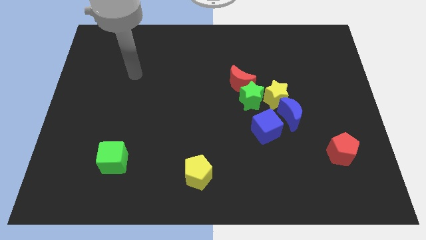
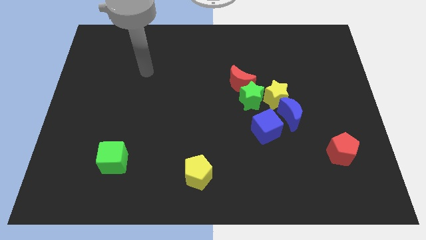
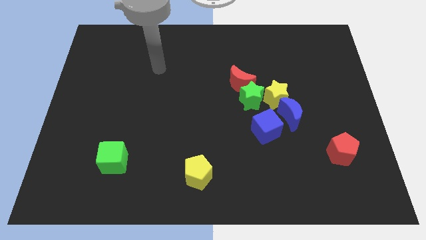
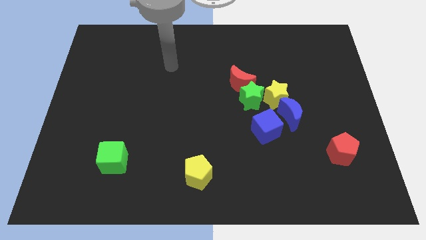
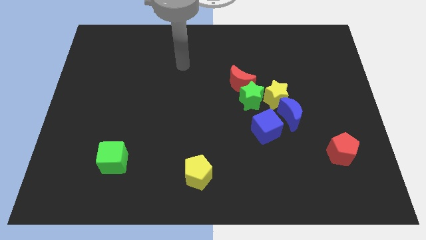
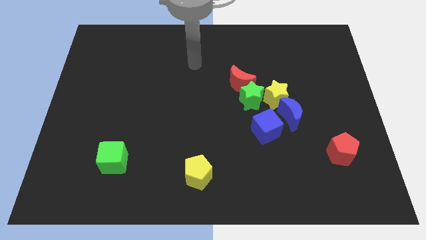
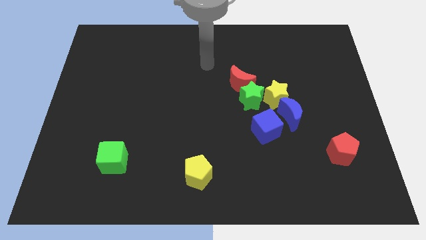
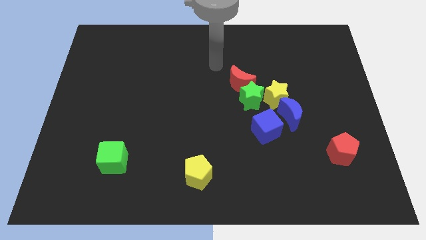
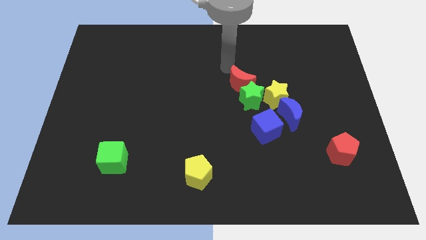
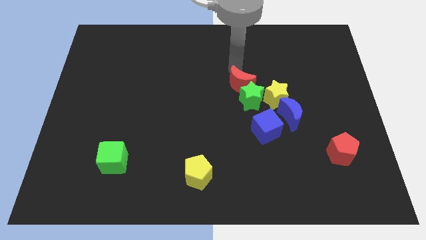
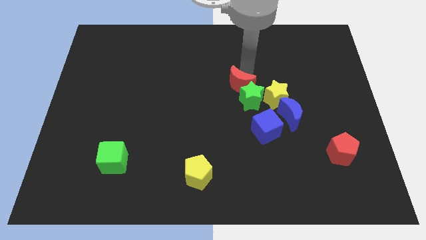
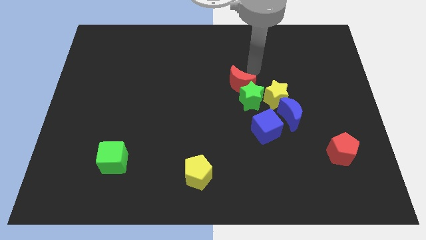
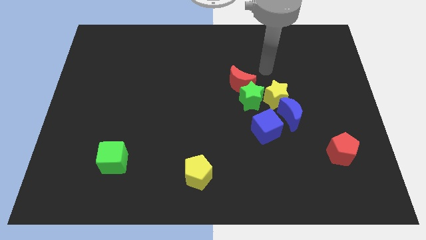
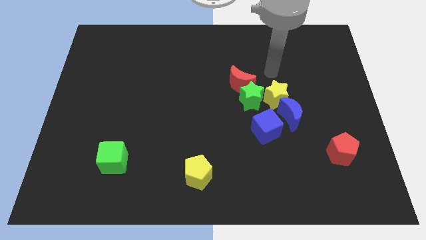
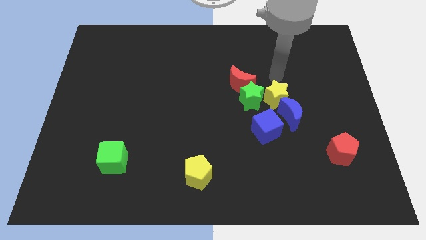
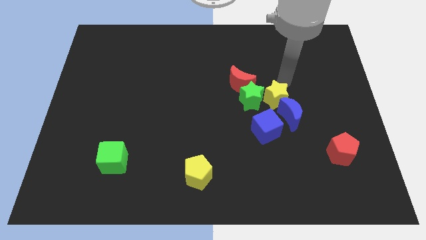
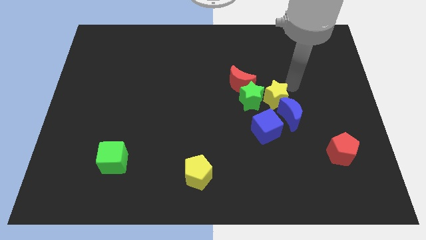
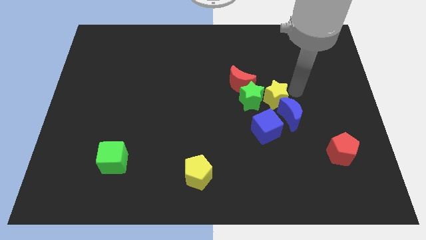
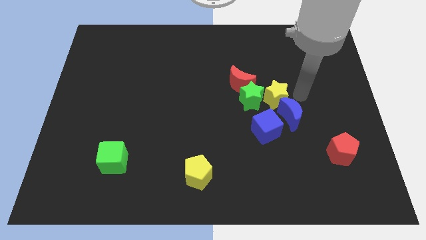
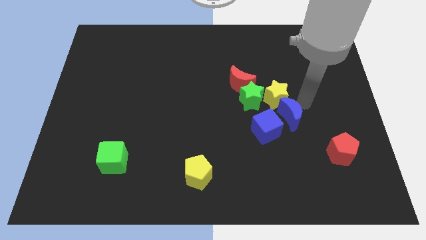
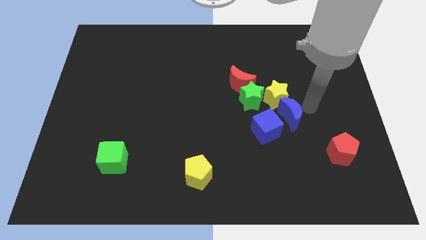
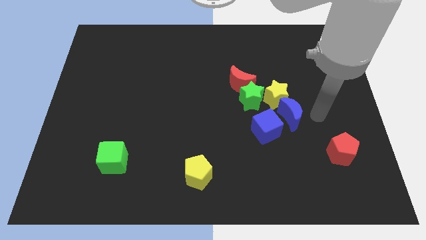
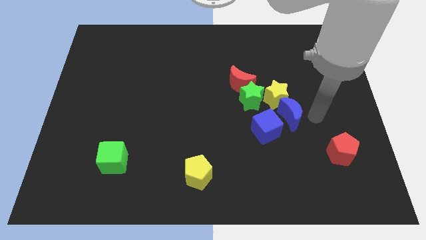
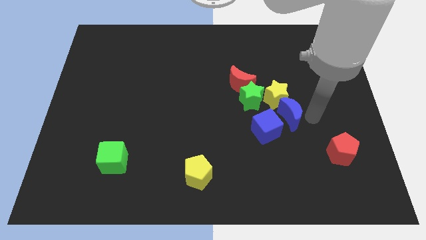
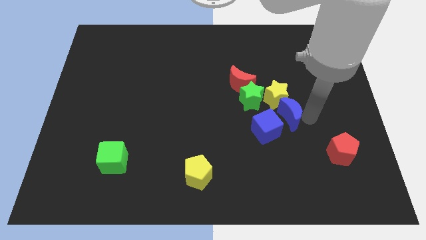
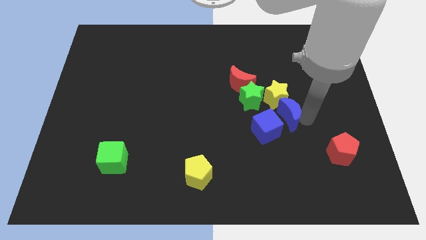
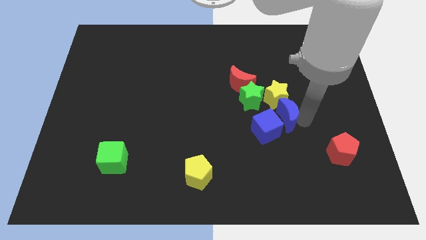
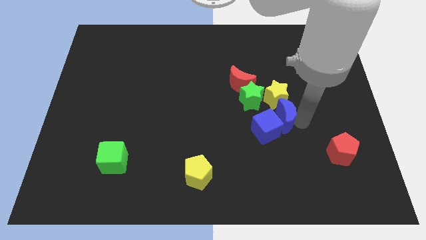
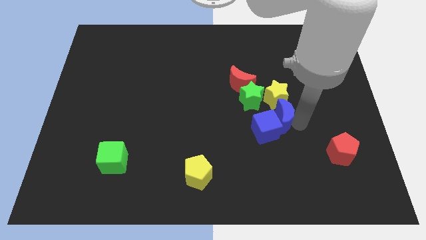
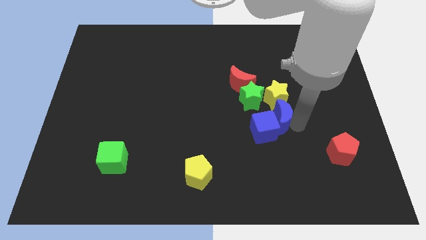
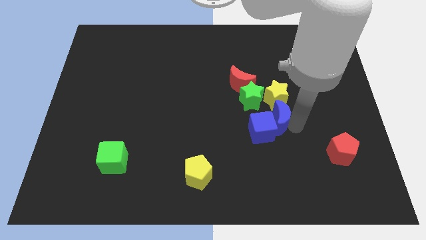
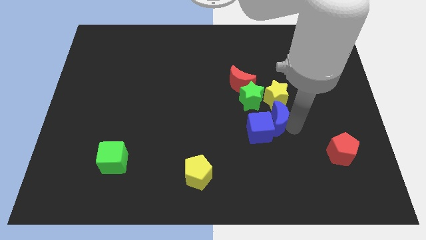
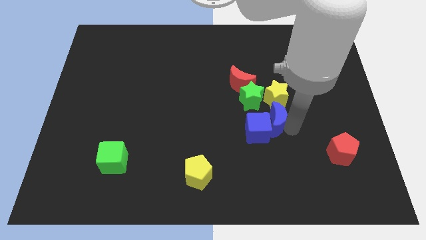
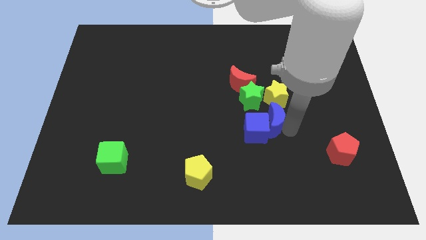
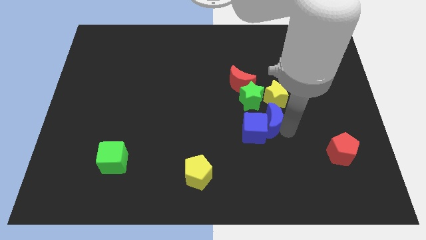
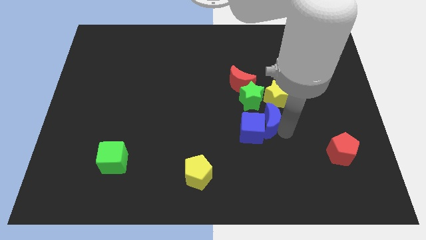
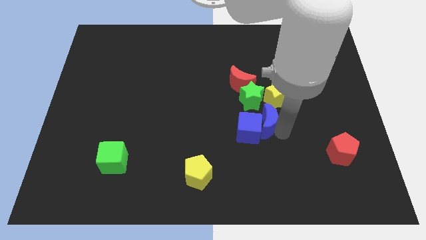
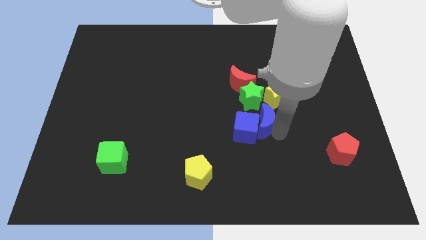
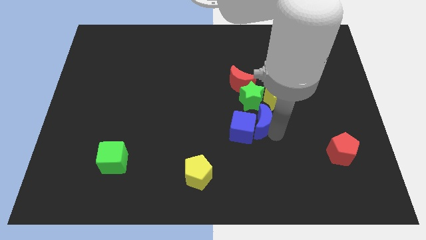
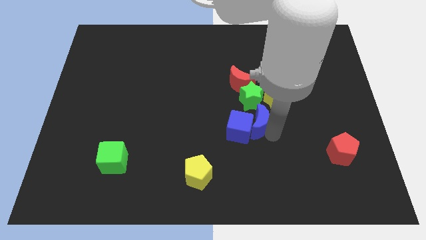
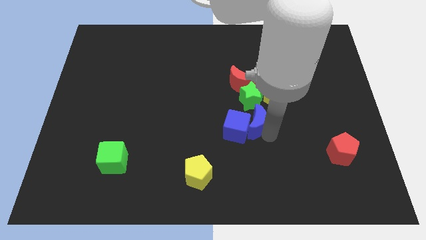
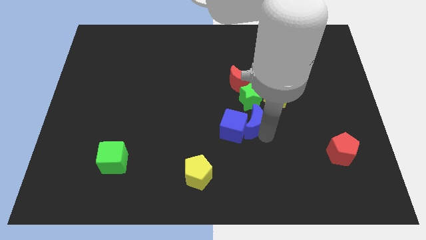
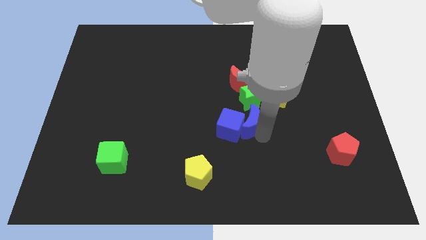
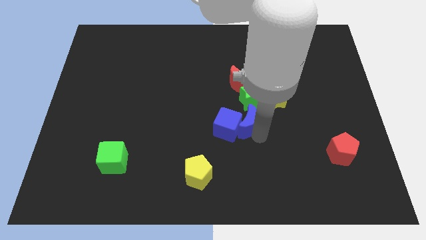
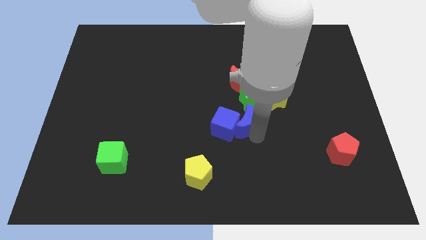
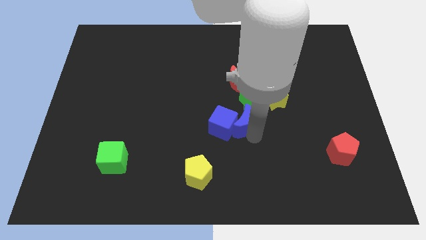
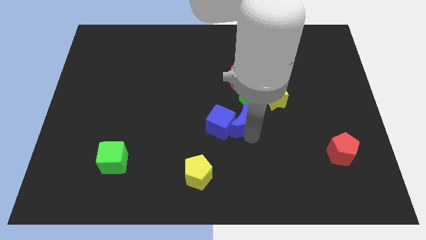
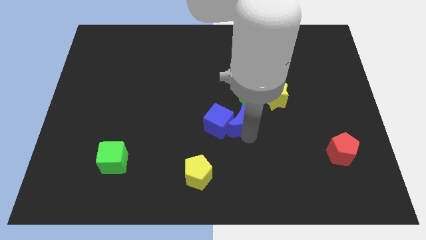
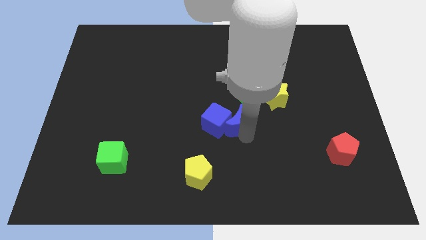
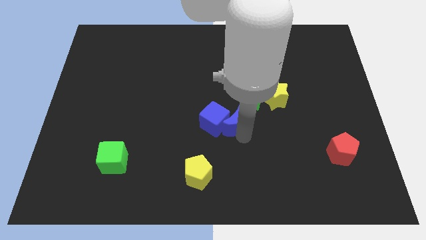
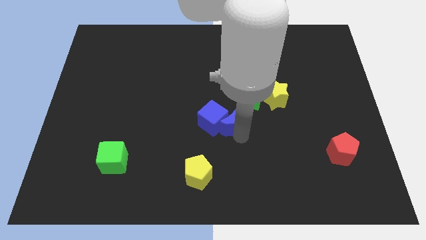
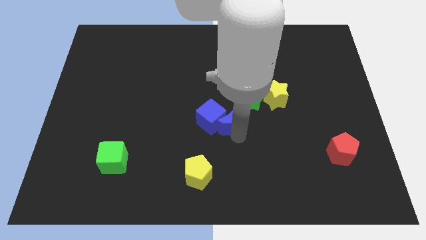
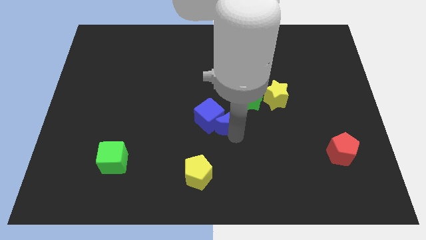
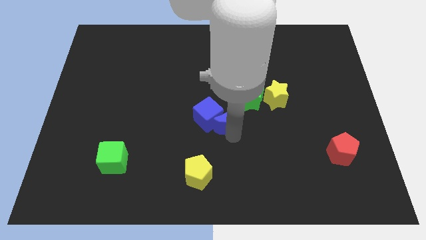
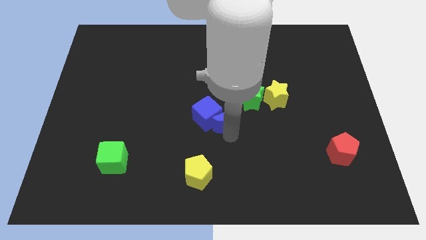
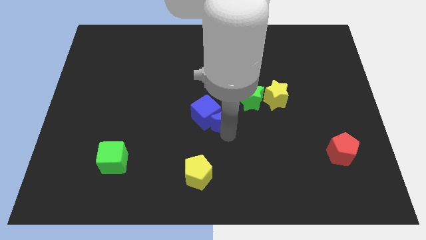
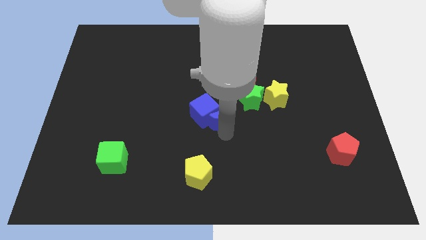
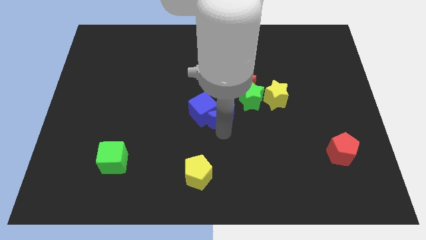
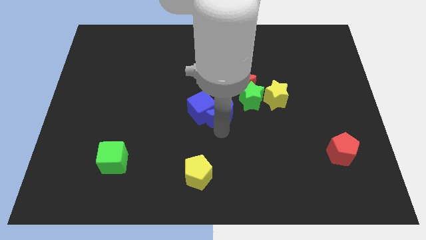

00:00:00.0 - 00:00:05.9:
push the blue moon to the bottom left of the red moon

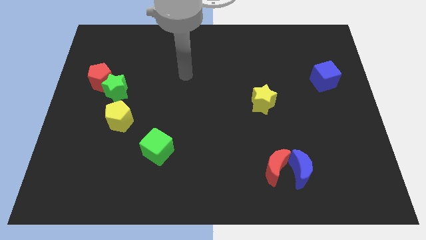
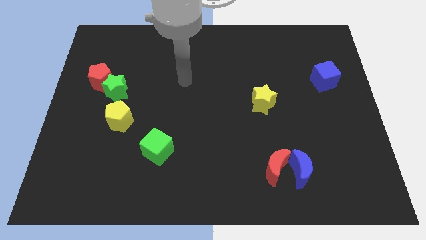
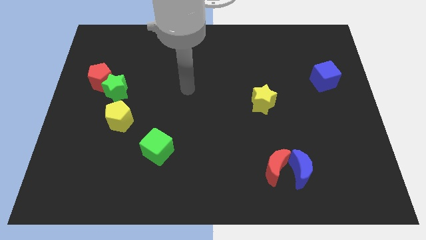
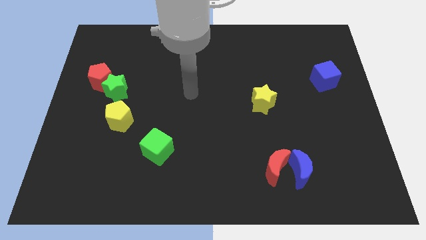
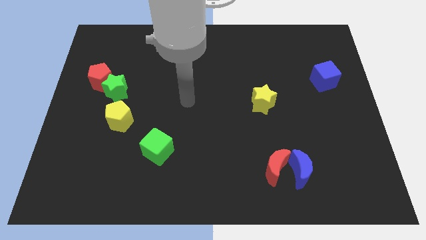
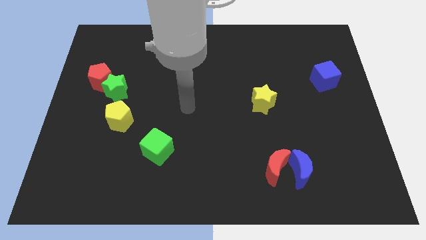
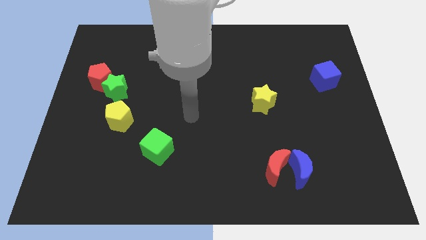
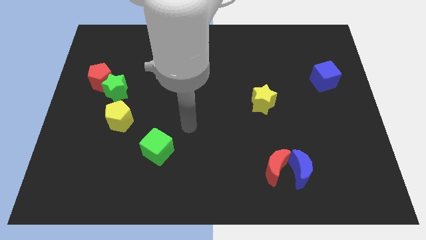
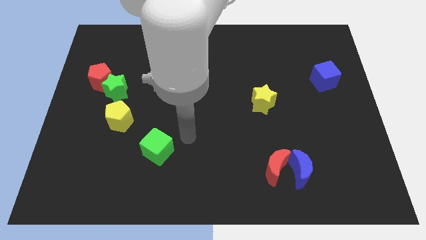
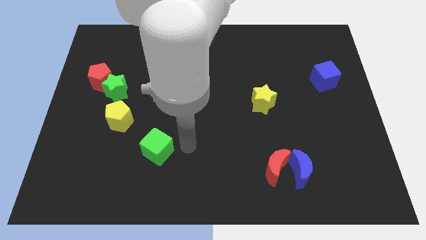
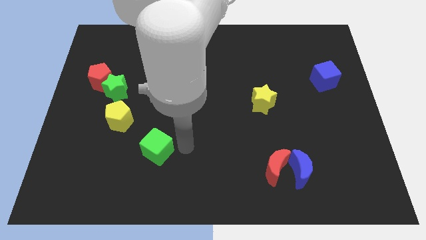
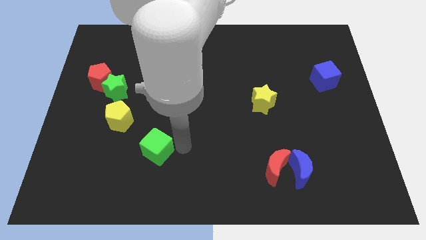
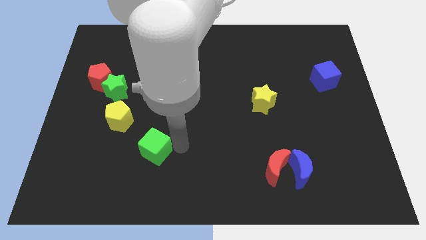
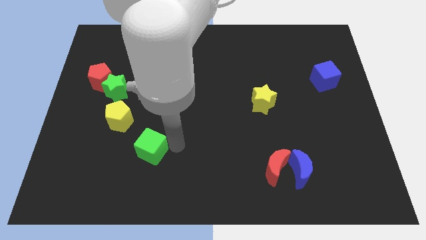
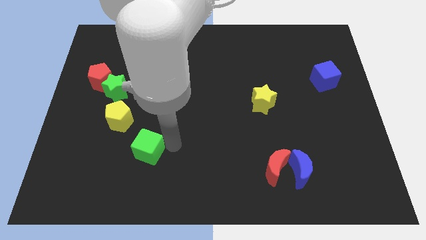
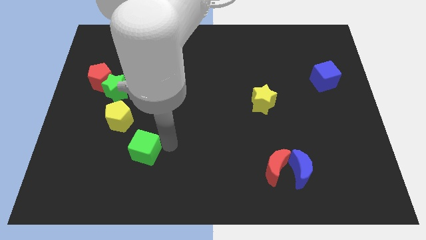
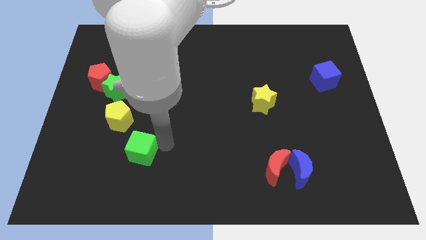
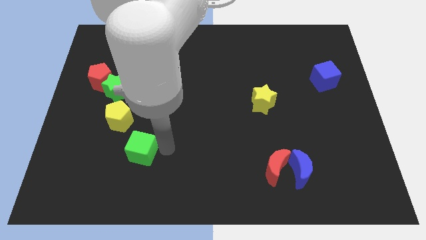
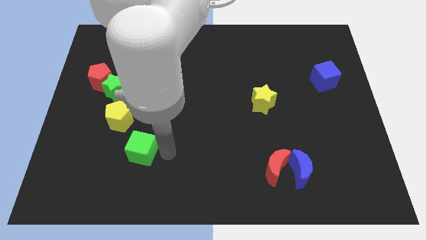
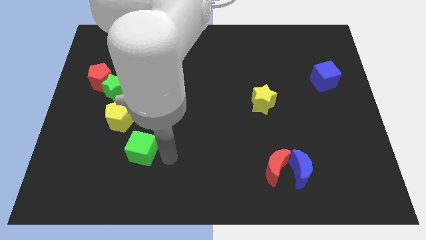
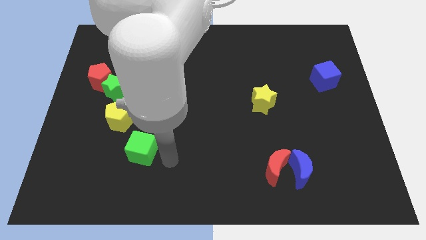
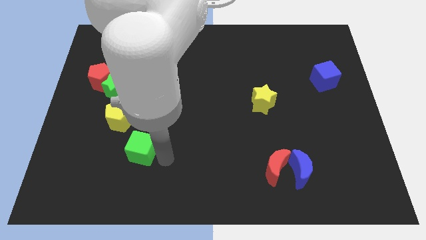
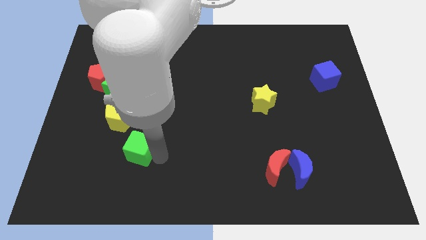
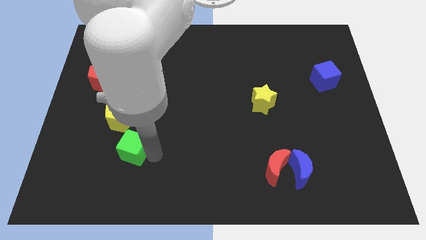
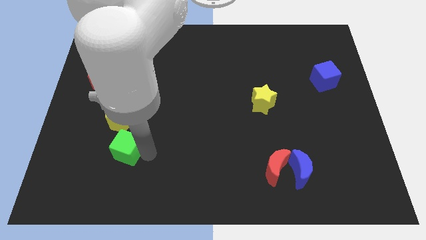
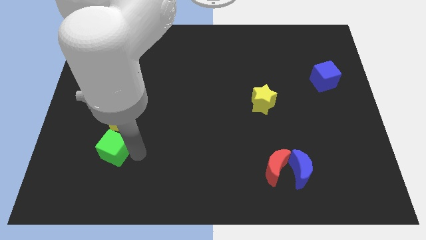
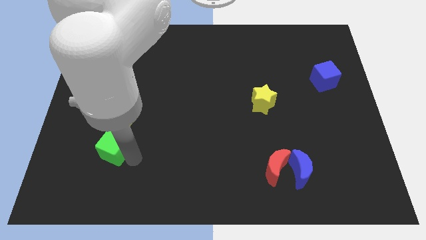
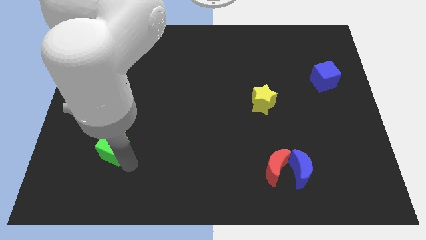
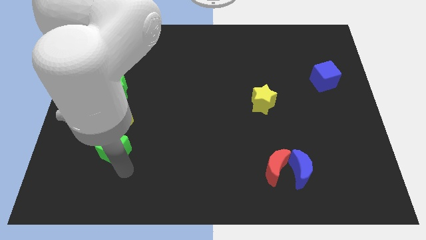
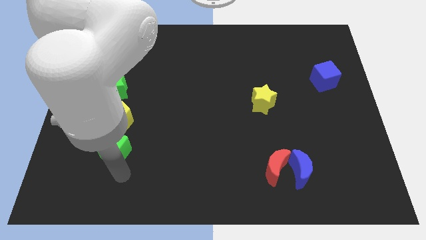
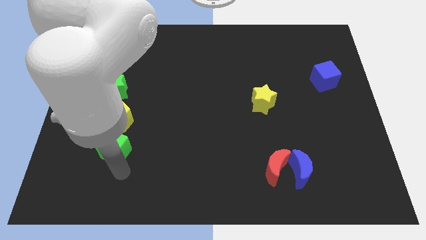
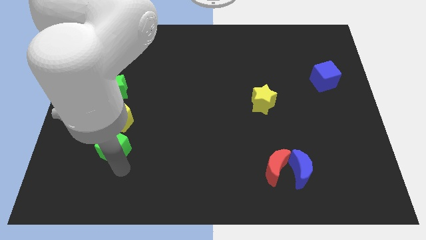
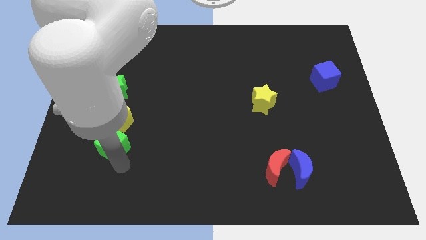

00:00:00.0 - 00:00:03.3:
put the green cube to the bottom side of the green star
